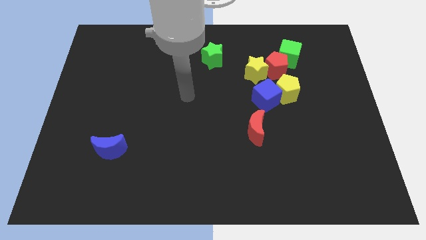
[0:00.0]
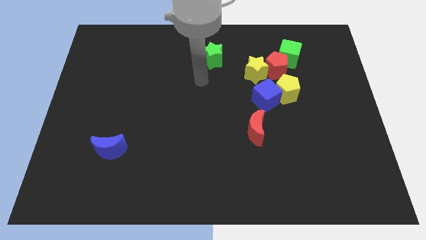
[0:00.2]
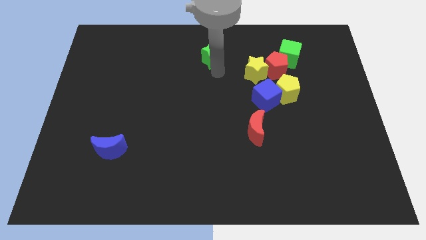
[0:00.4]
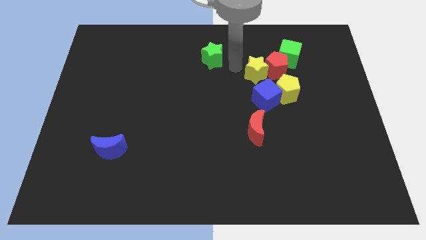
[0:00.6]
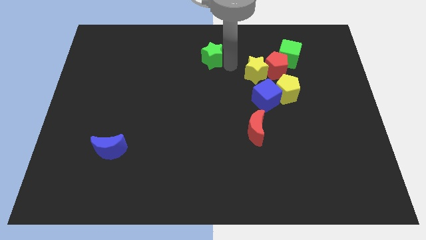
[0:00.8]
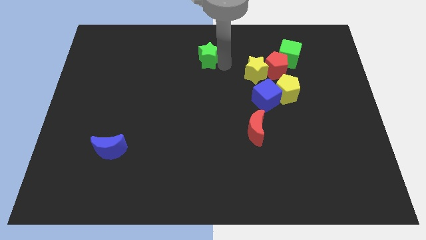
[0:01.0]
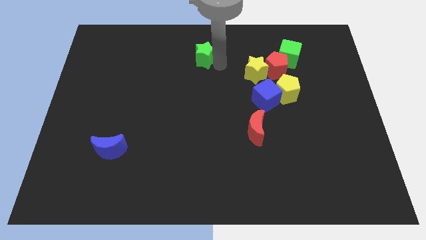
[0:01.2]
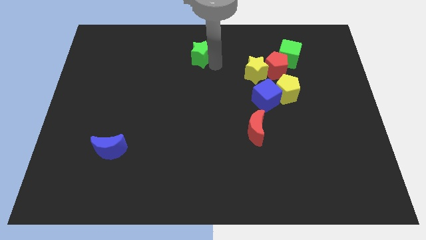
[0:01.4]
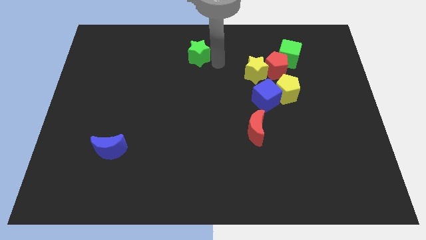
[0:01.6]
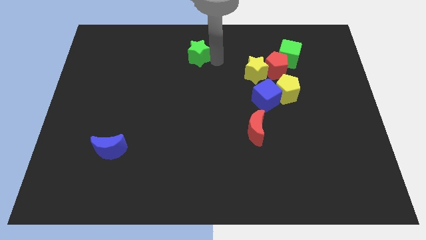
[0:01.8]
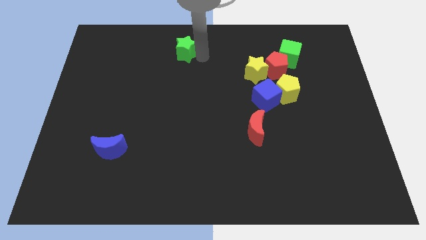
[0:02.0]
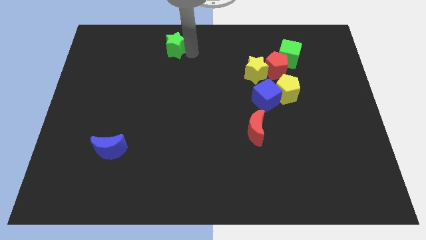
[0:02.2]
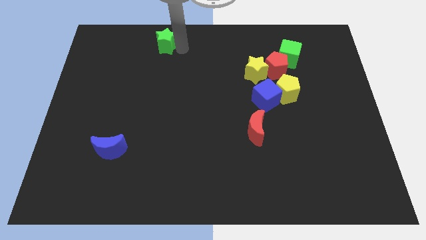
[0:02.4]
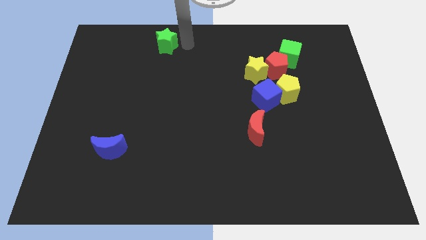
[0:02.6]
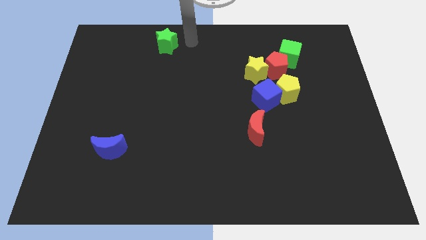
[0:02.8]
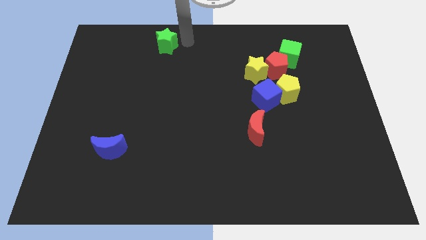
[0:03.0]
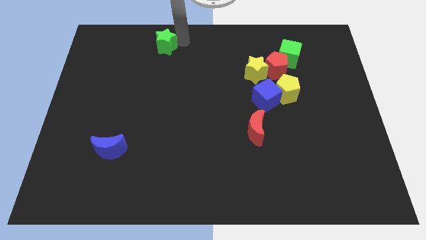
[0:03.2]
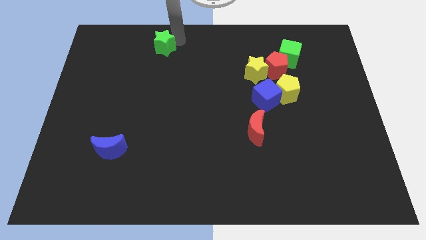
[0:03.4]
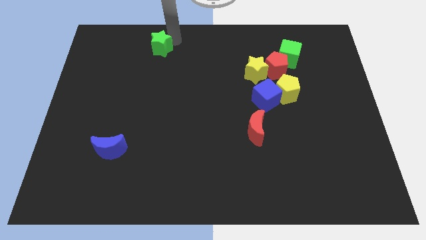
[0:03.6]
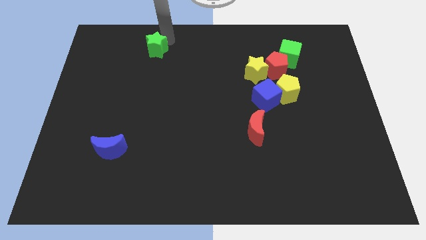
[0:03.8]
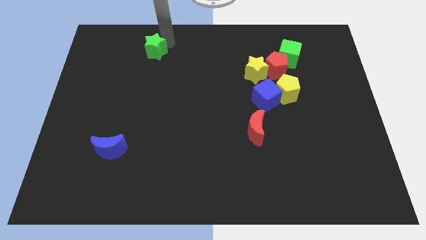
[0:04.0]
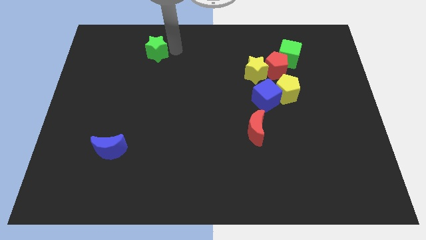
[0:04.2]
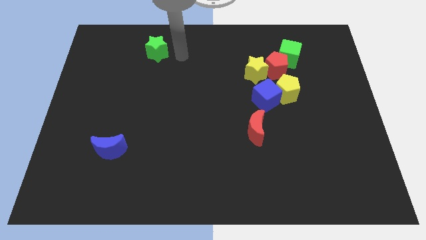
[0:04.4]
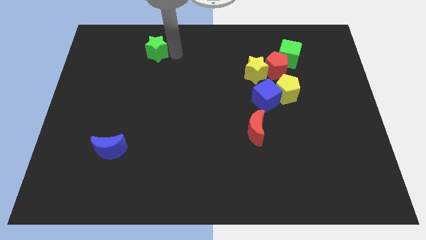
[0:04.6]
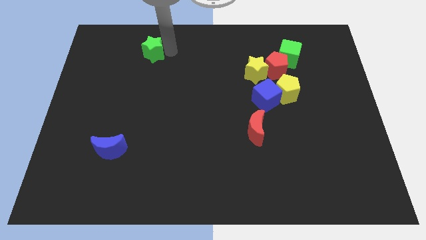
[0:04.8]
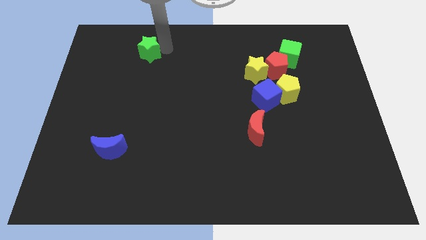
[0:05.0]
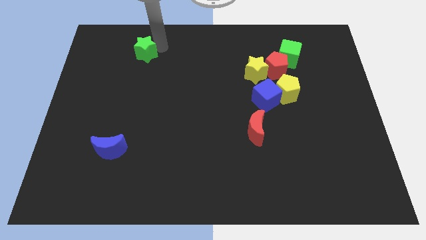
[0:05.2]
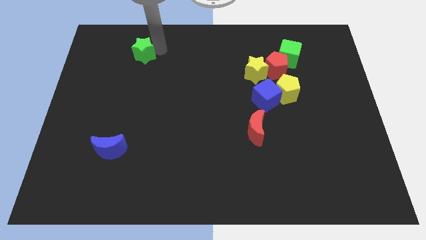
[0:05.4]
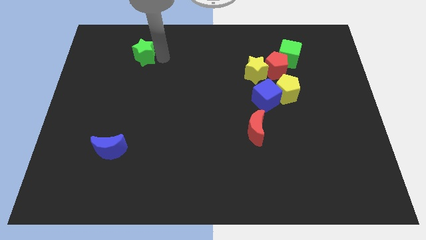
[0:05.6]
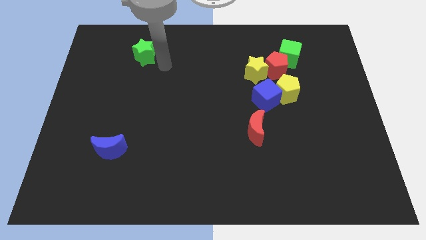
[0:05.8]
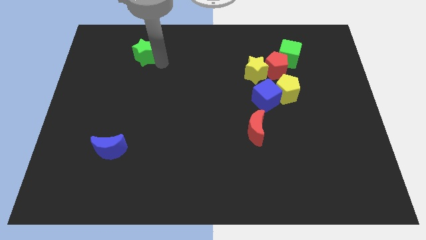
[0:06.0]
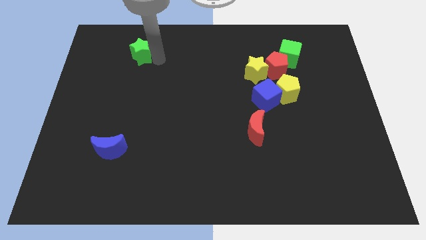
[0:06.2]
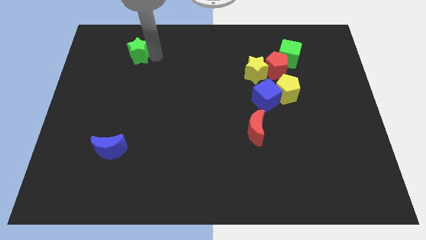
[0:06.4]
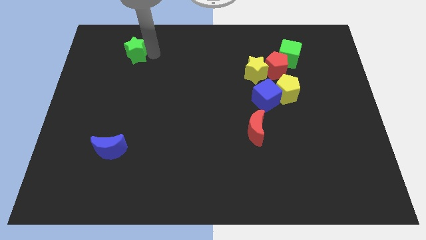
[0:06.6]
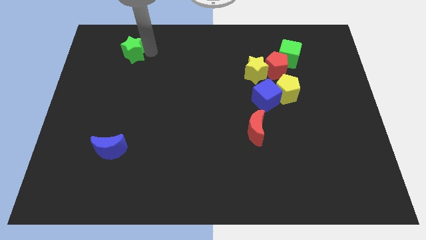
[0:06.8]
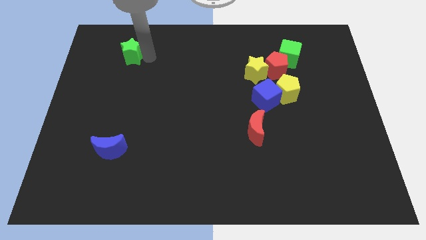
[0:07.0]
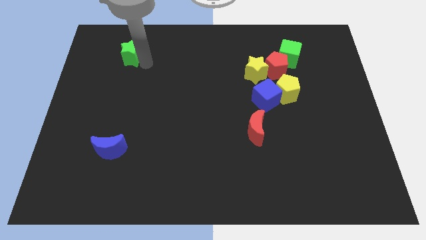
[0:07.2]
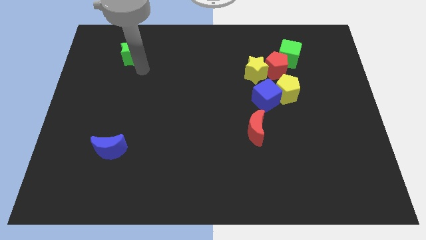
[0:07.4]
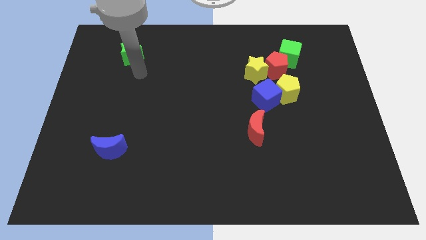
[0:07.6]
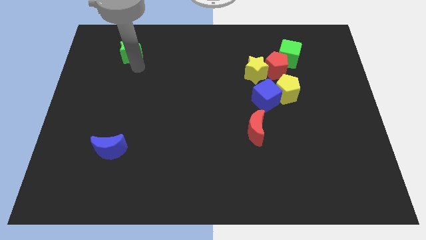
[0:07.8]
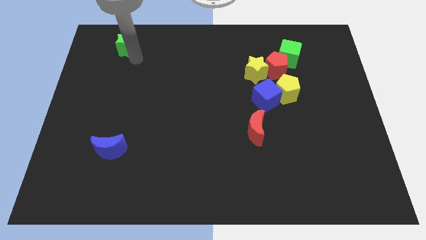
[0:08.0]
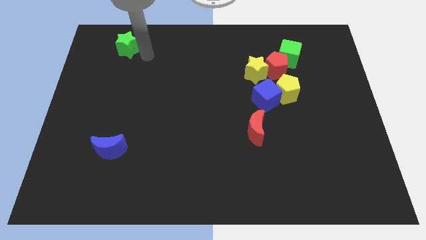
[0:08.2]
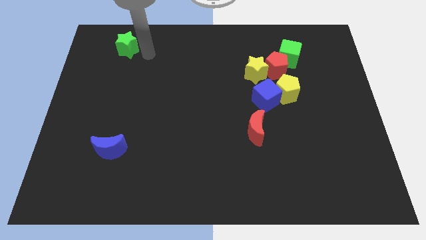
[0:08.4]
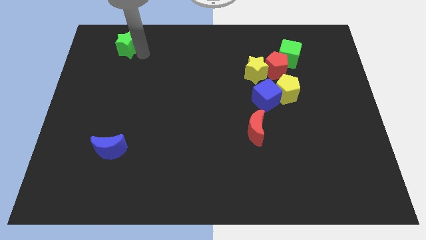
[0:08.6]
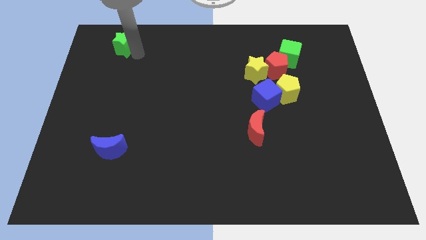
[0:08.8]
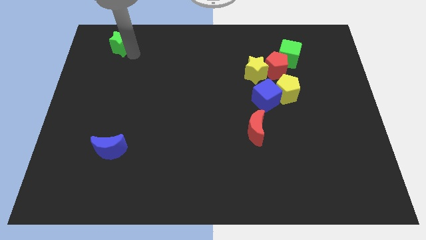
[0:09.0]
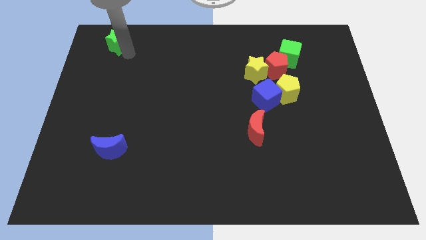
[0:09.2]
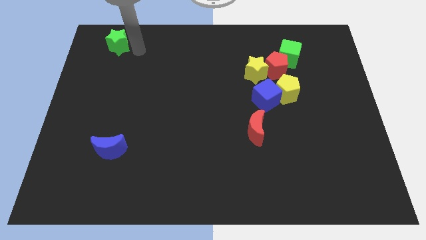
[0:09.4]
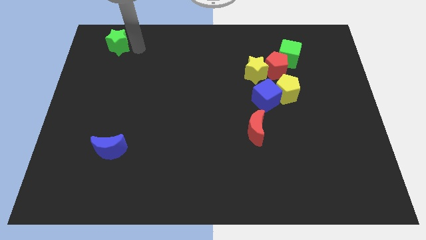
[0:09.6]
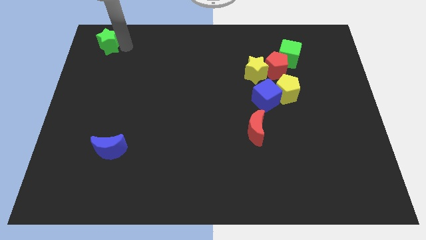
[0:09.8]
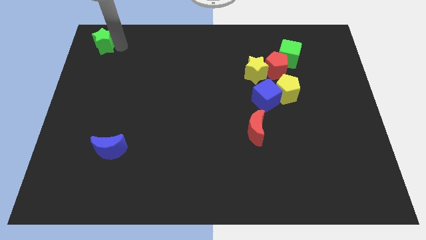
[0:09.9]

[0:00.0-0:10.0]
slide the green star to the upper left corner
